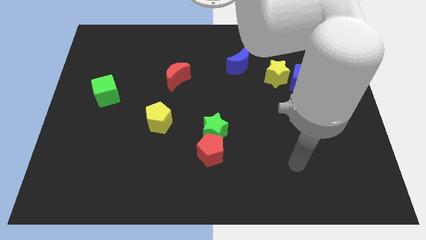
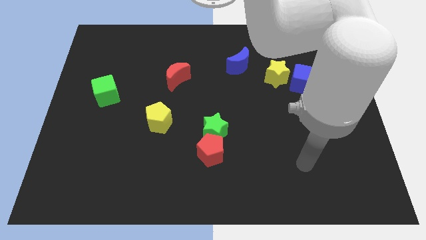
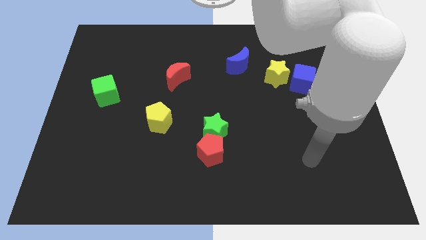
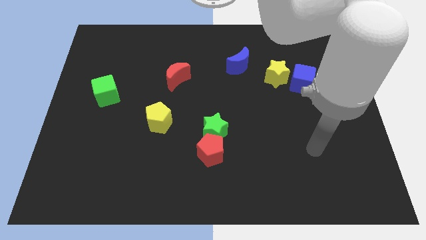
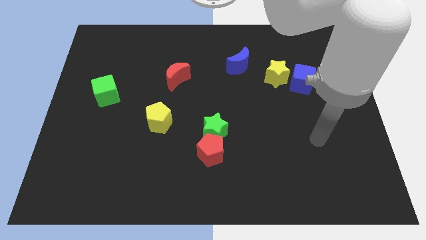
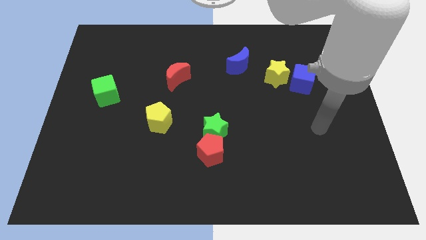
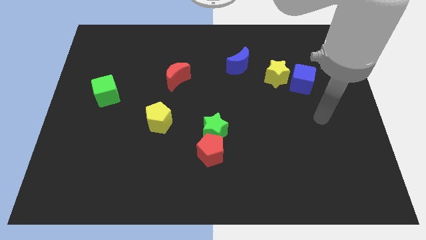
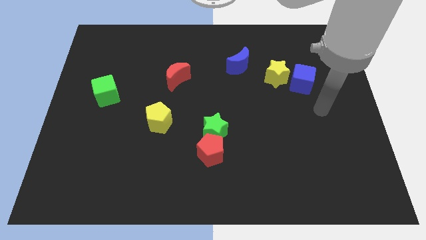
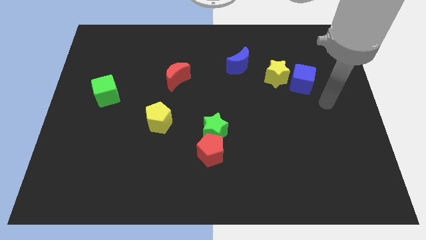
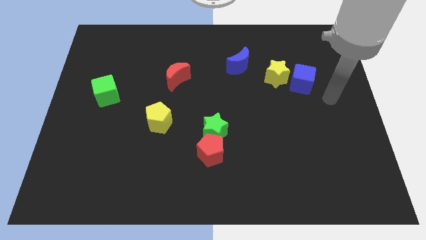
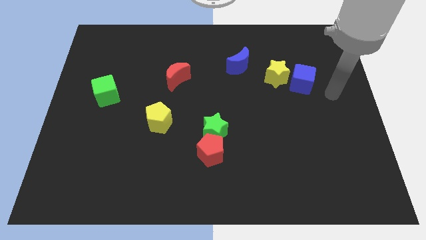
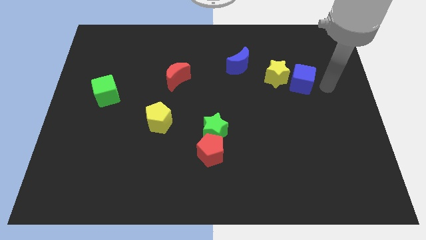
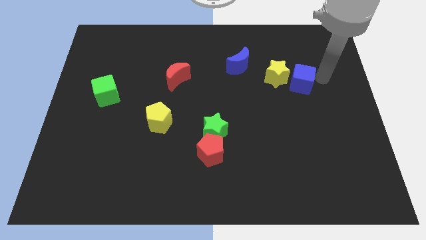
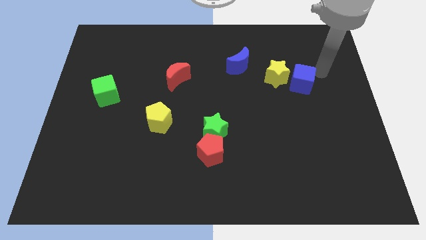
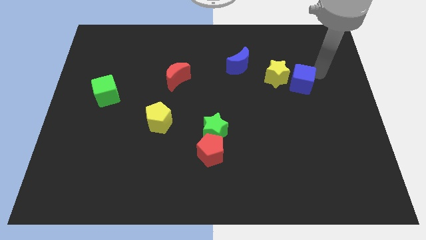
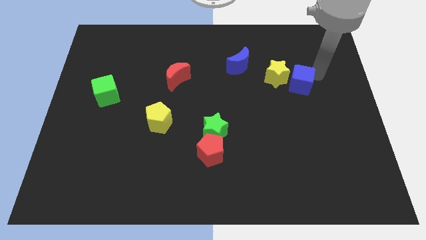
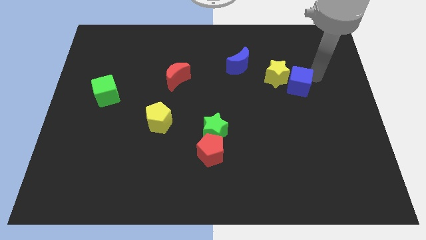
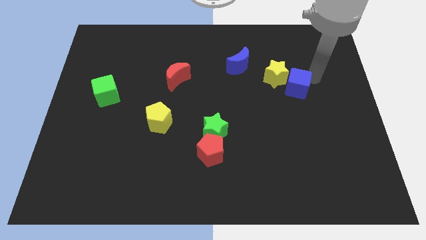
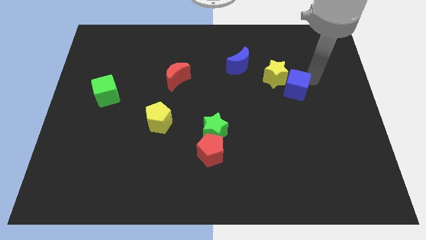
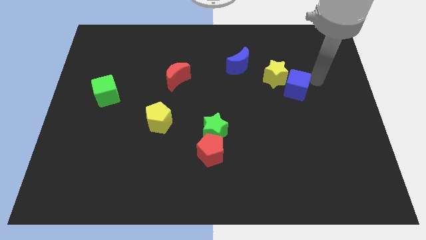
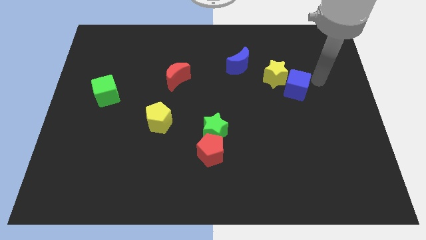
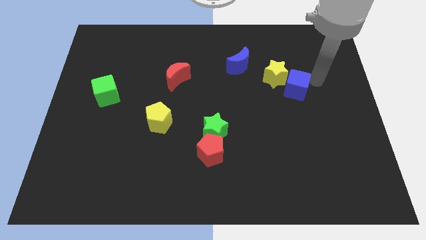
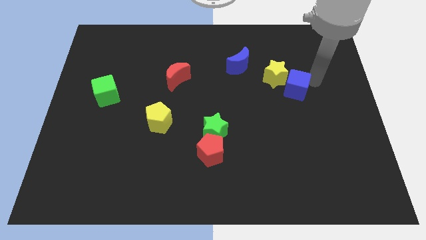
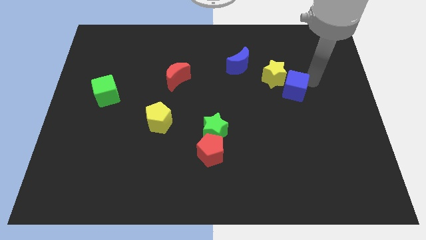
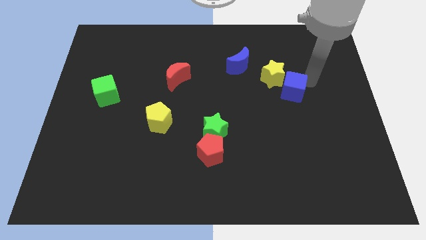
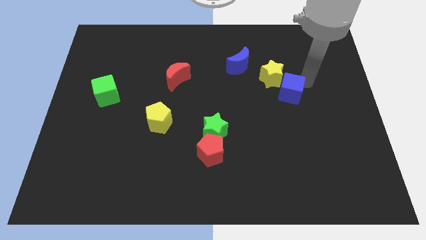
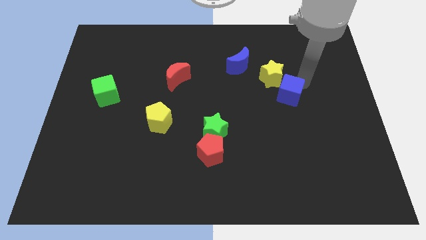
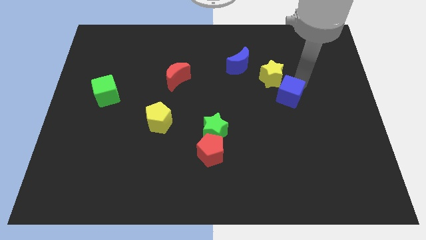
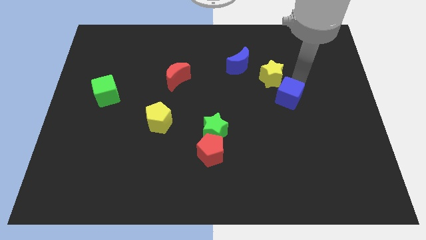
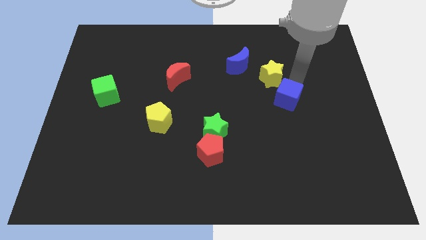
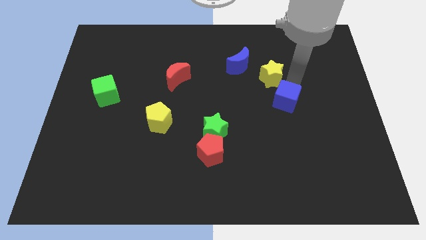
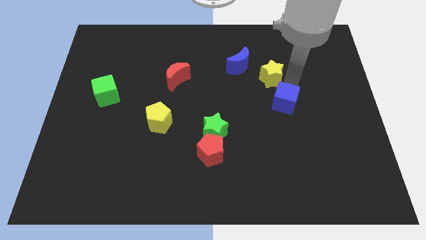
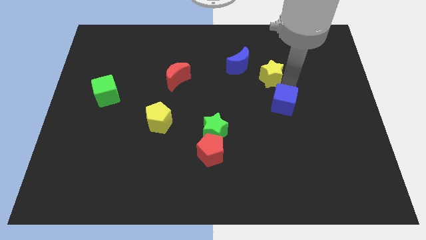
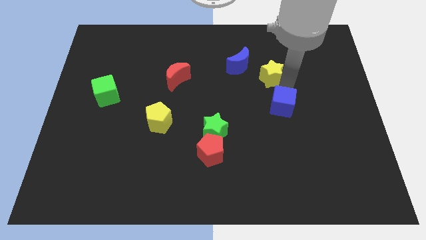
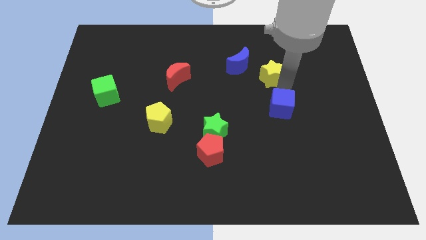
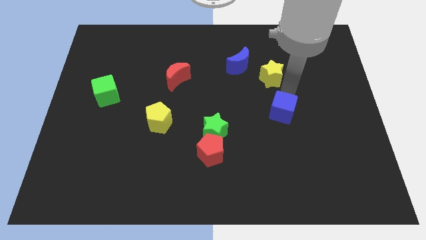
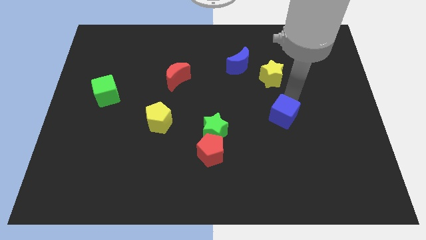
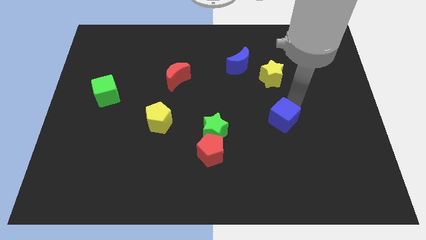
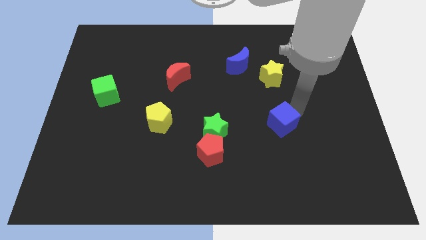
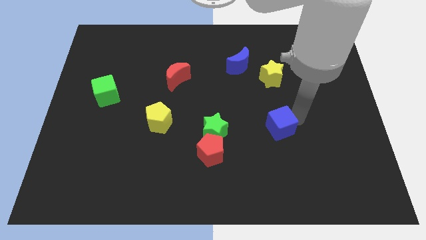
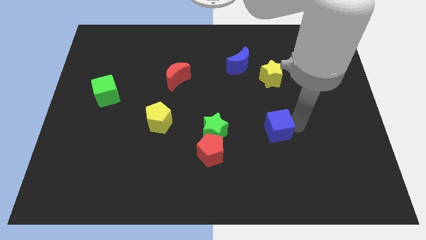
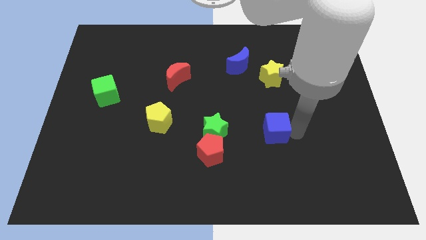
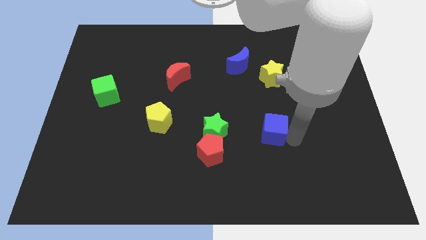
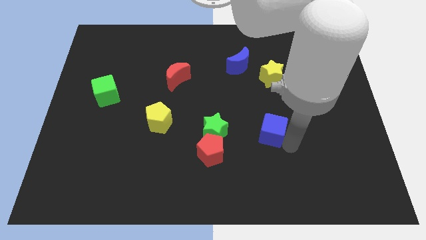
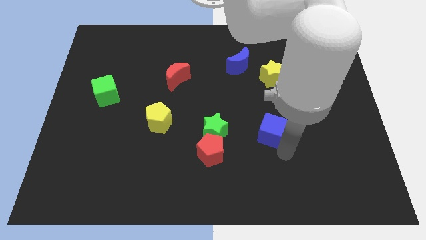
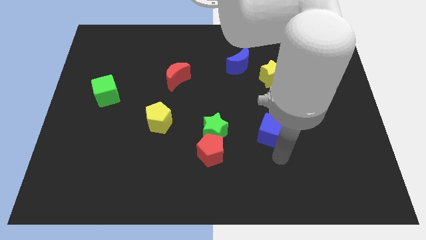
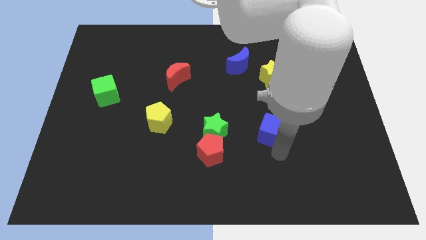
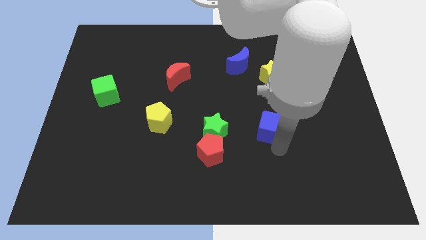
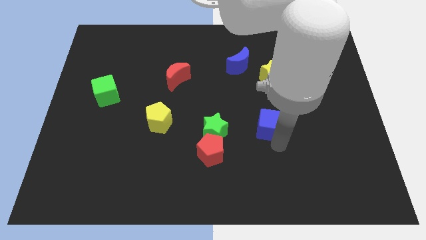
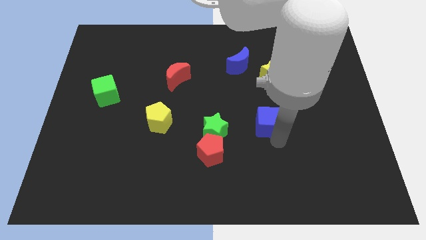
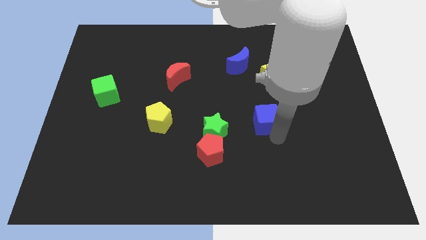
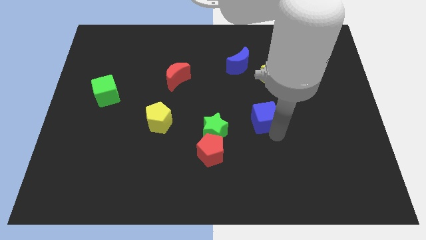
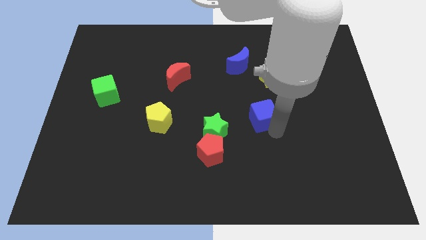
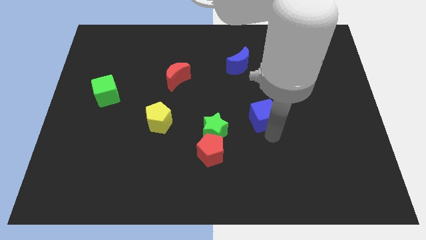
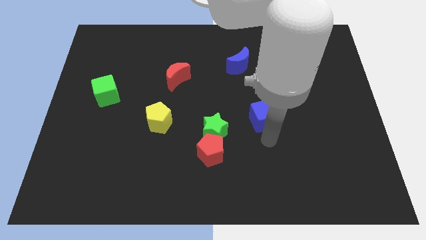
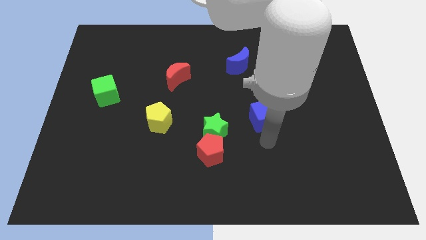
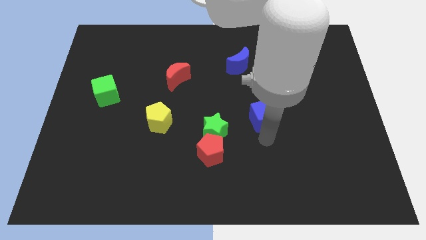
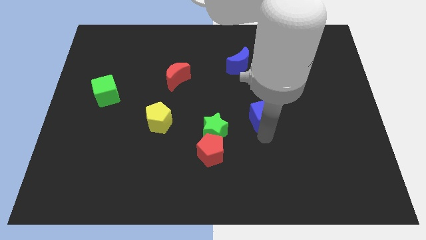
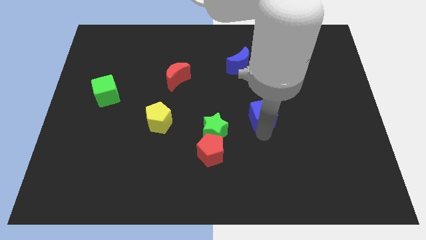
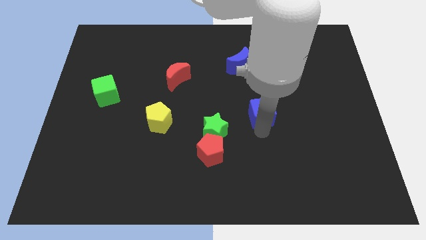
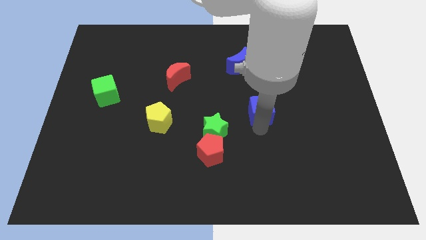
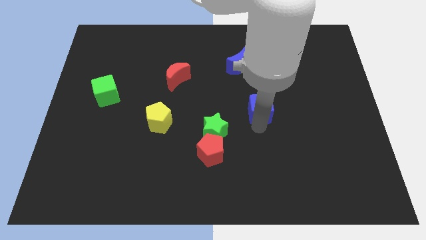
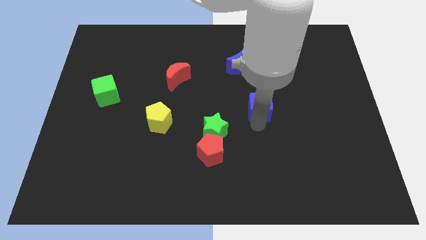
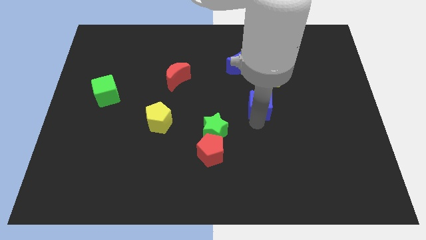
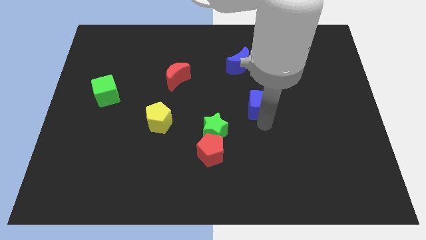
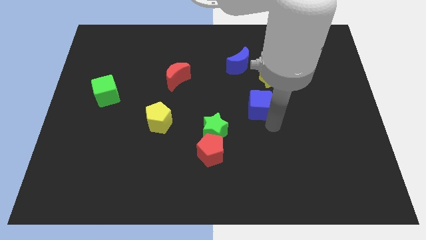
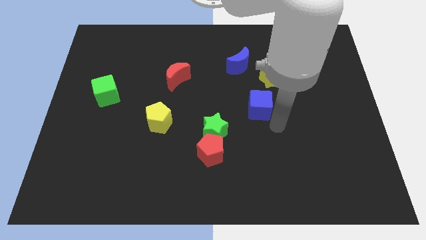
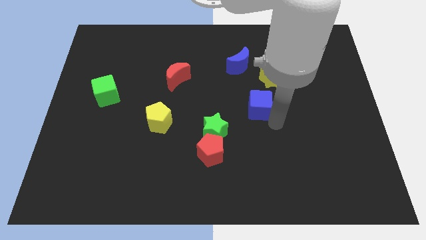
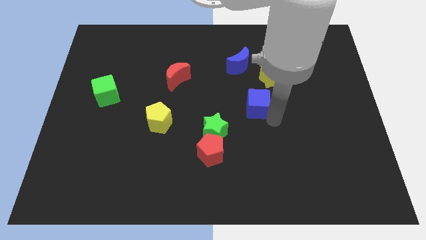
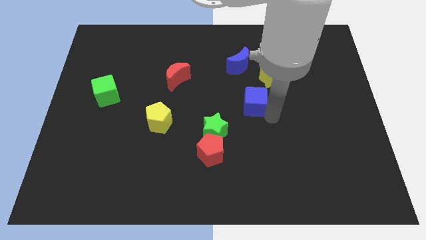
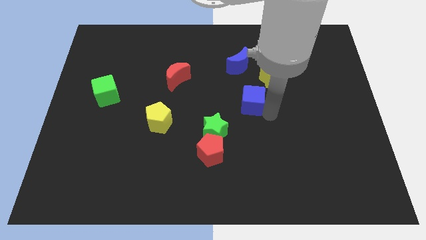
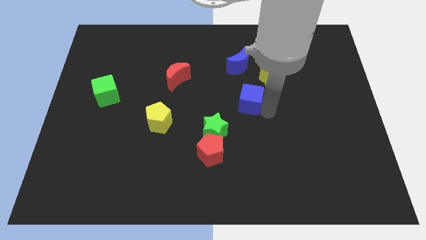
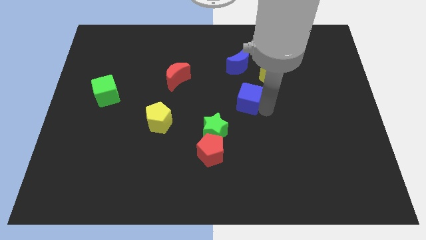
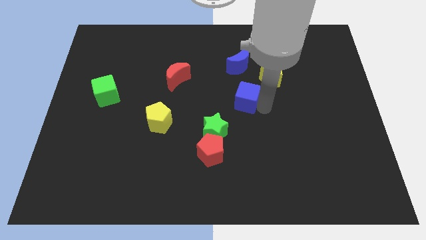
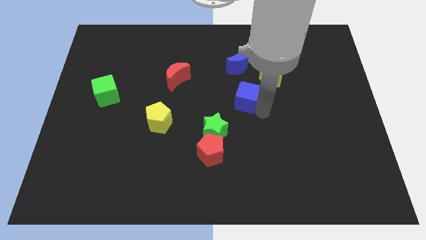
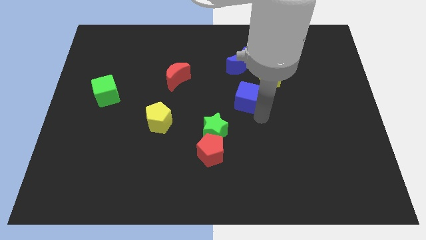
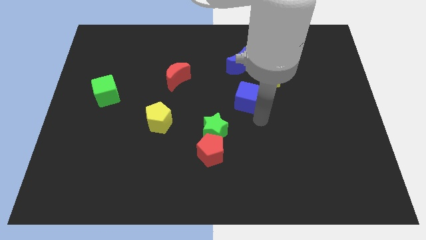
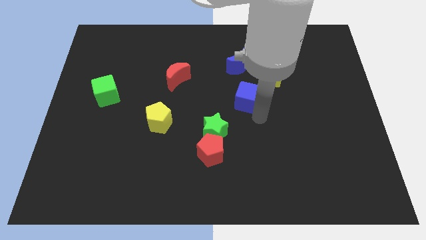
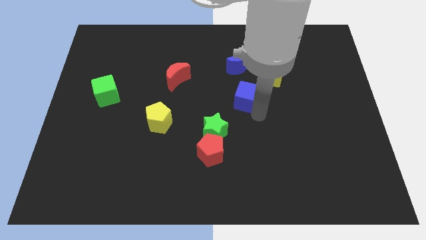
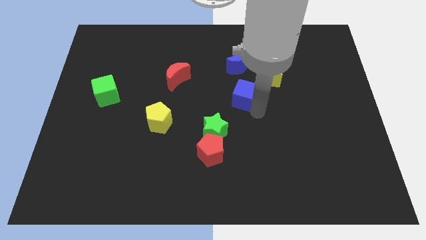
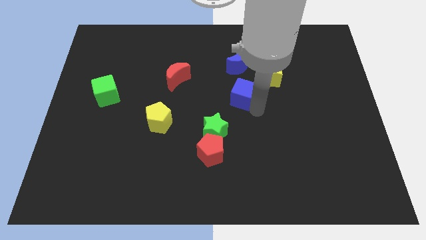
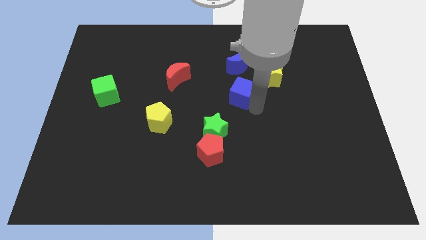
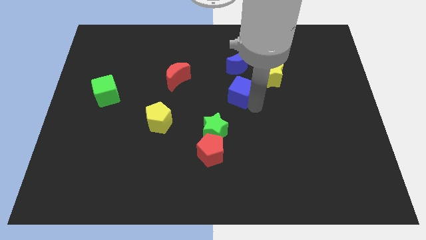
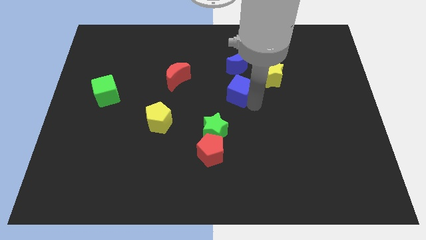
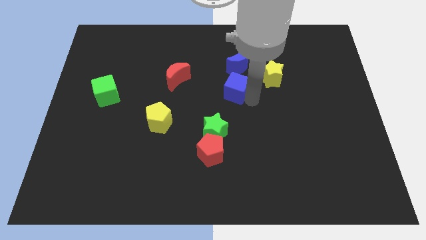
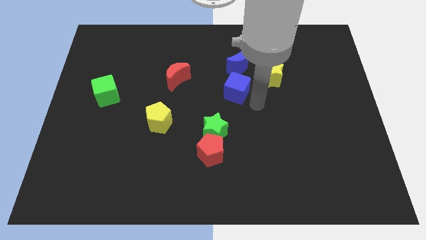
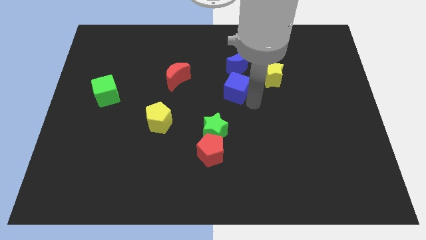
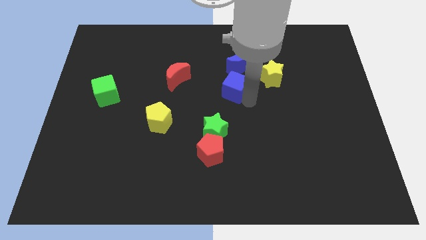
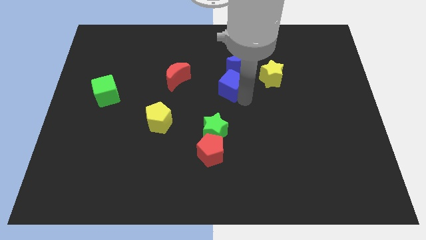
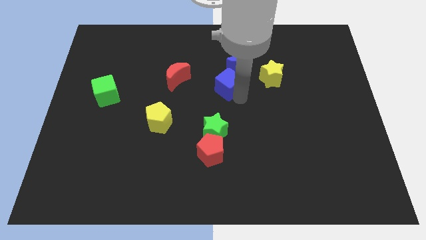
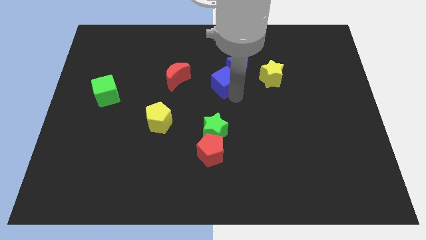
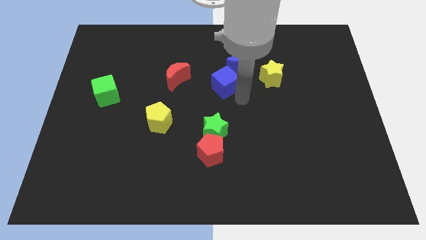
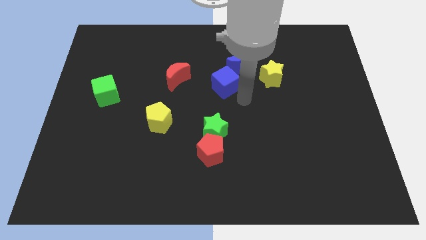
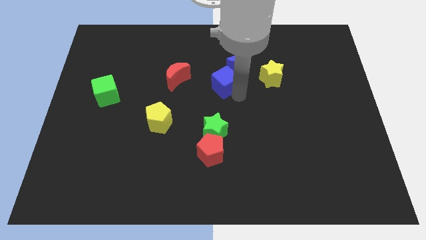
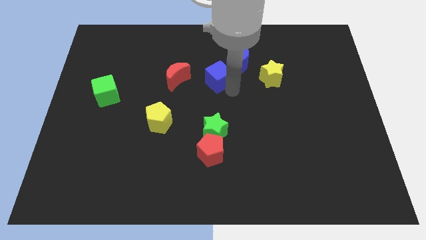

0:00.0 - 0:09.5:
slide the blue cube to the left side of the blue moon
